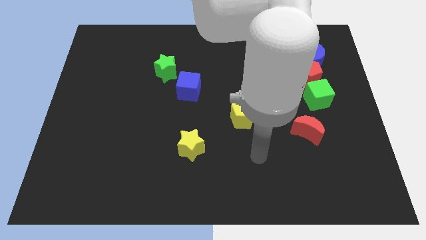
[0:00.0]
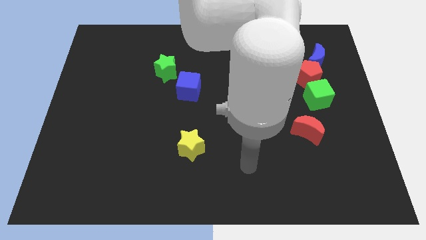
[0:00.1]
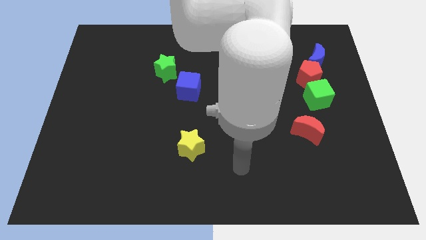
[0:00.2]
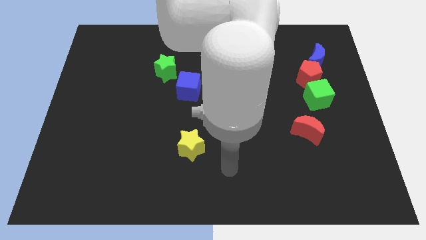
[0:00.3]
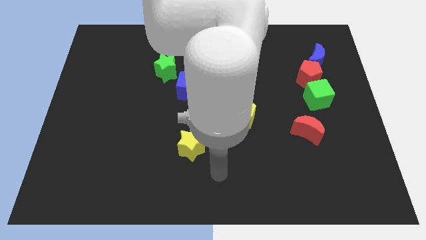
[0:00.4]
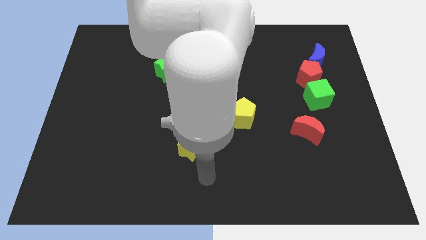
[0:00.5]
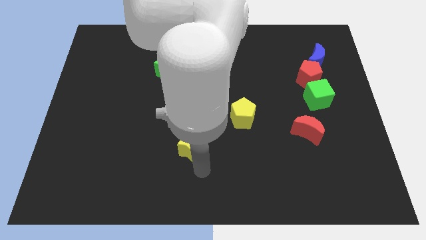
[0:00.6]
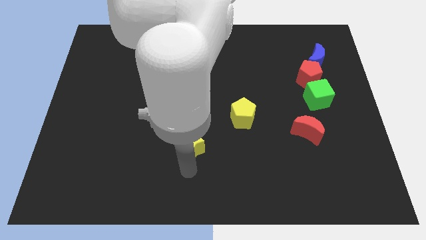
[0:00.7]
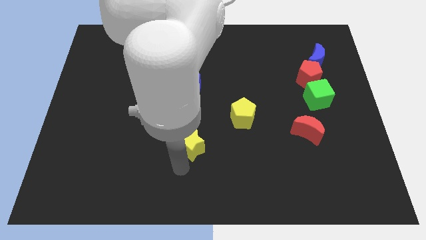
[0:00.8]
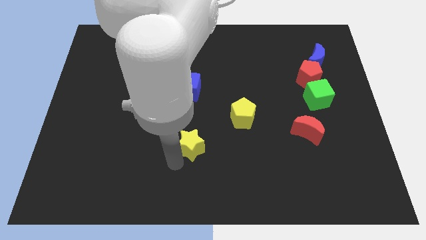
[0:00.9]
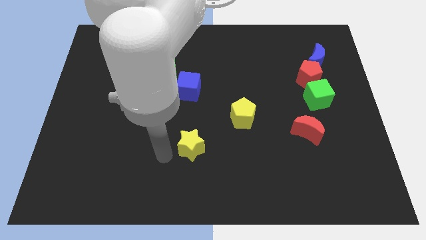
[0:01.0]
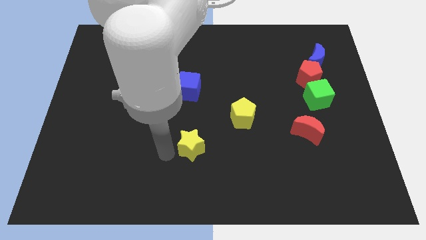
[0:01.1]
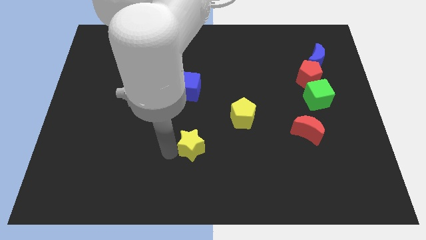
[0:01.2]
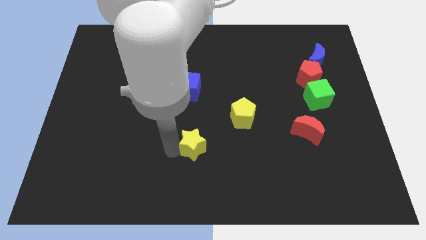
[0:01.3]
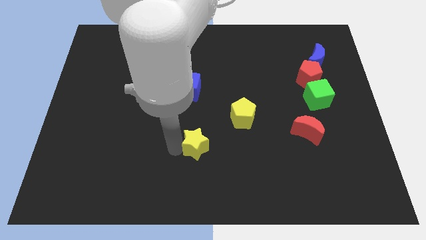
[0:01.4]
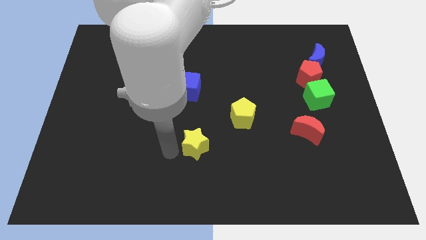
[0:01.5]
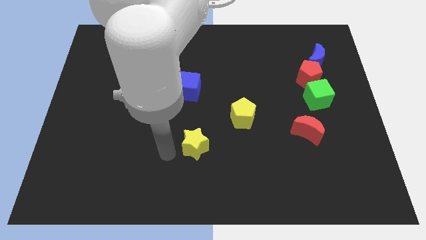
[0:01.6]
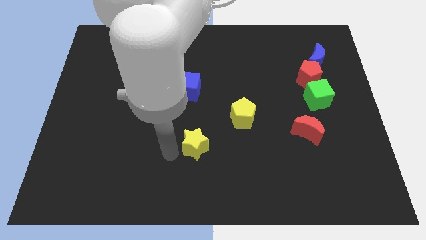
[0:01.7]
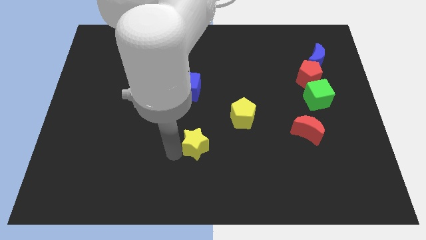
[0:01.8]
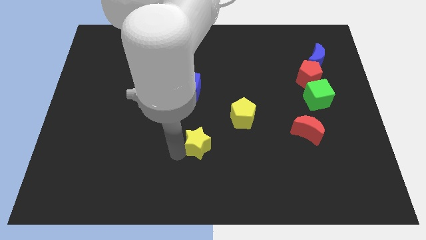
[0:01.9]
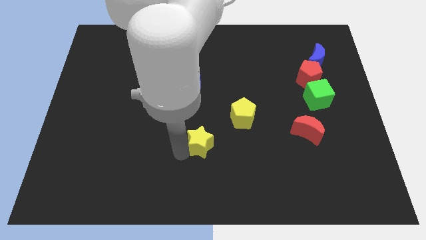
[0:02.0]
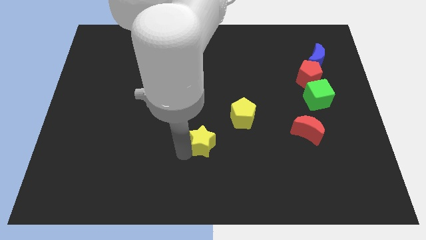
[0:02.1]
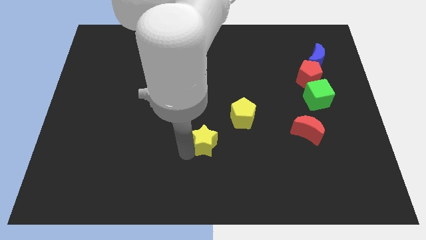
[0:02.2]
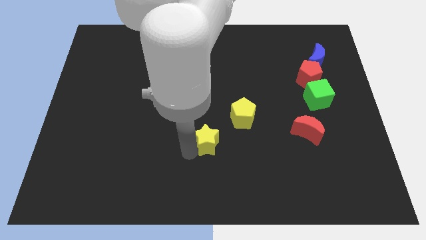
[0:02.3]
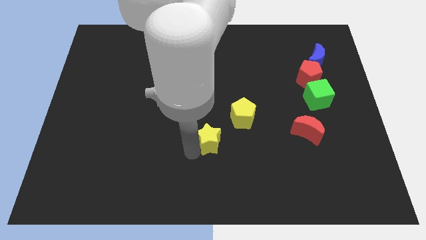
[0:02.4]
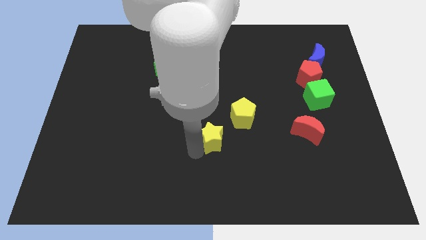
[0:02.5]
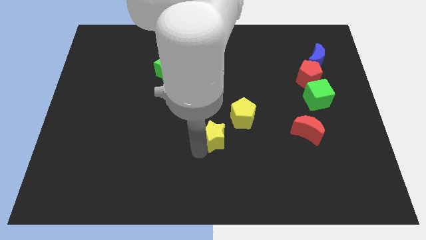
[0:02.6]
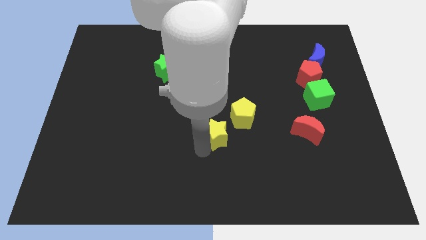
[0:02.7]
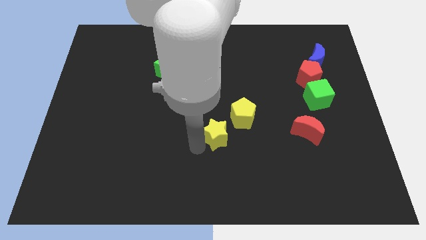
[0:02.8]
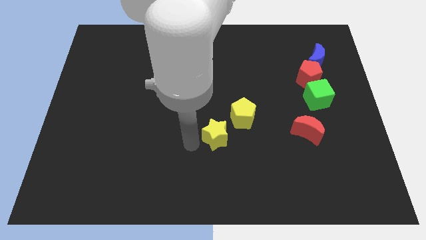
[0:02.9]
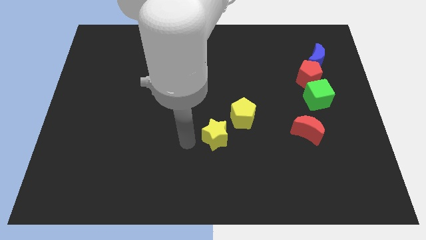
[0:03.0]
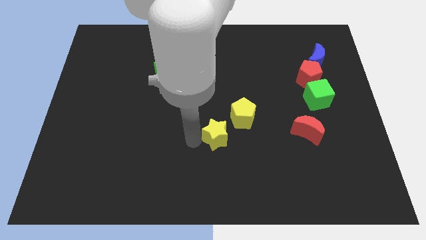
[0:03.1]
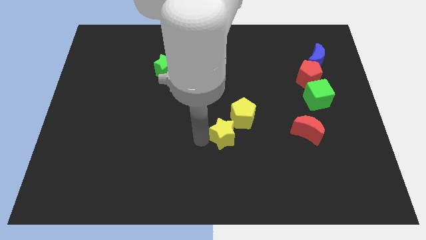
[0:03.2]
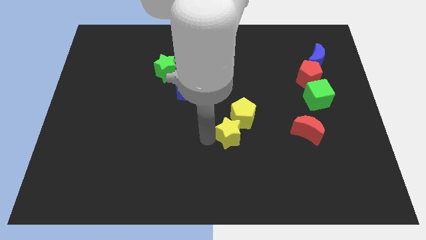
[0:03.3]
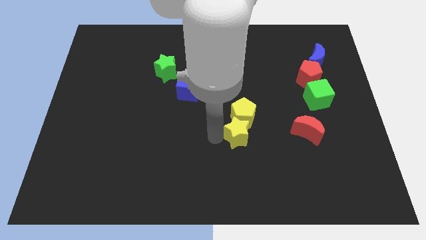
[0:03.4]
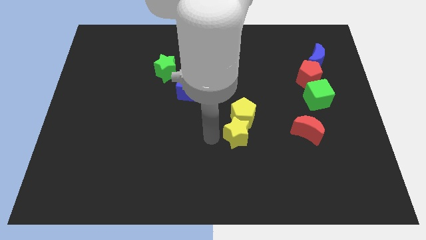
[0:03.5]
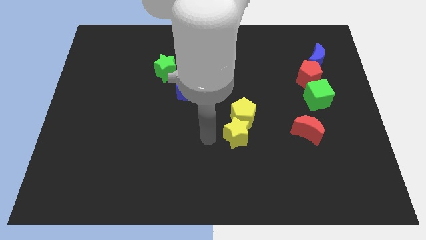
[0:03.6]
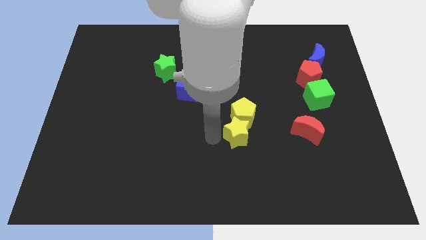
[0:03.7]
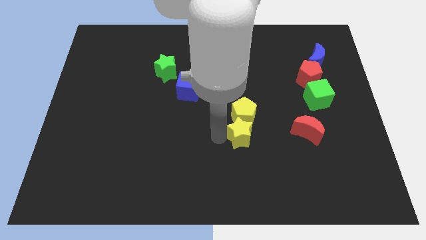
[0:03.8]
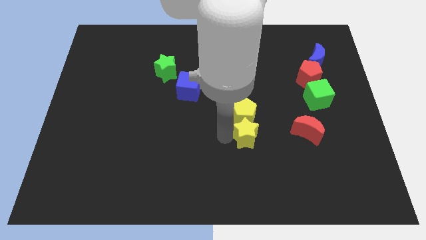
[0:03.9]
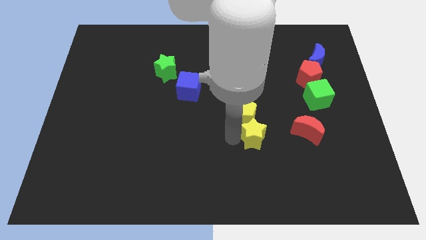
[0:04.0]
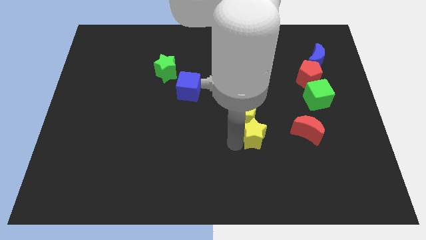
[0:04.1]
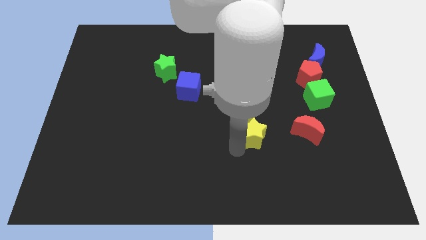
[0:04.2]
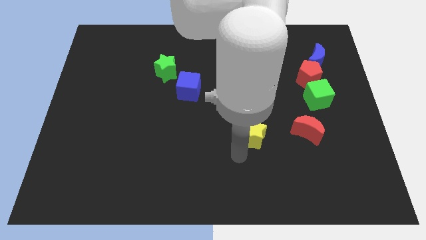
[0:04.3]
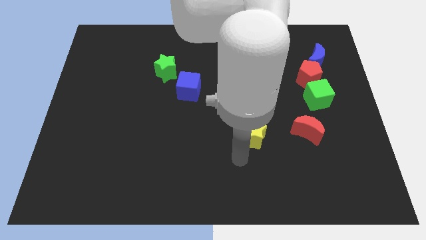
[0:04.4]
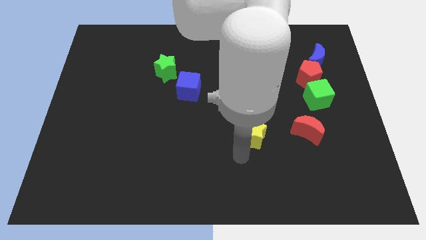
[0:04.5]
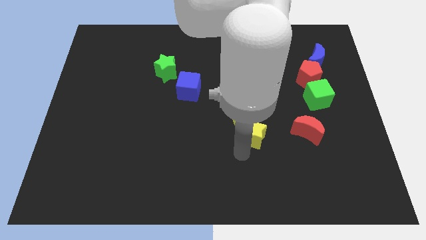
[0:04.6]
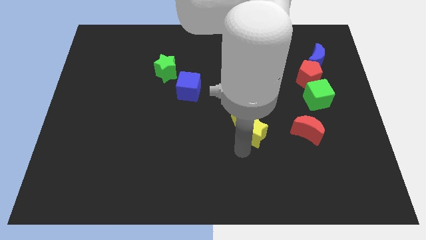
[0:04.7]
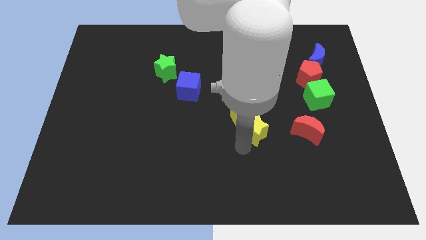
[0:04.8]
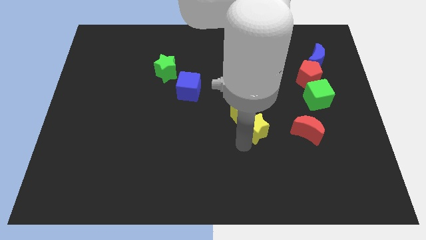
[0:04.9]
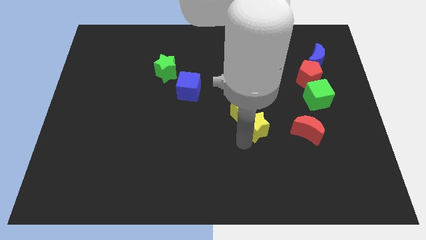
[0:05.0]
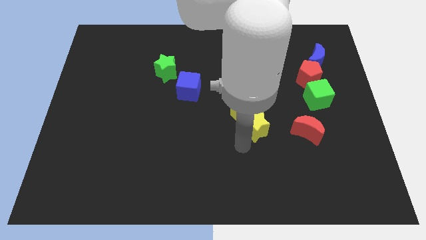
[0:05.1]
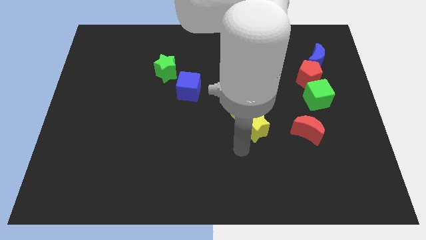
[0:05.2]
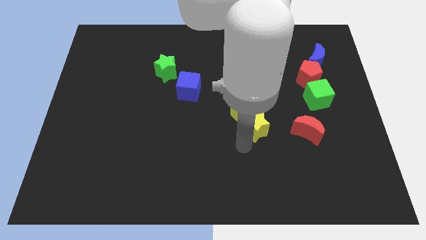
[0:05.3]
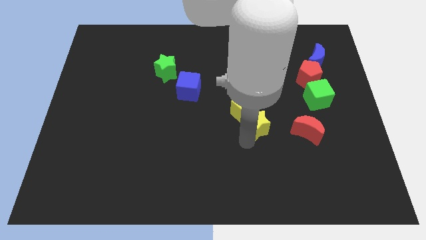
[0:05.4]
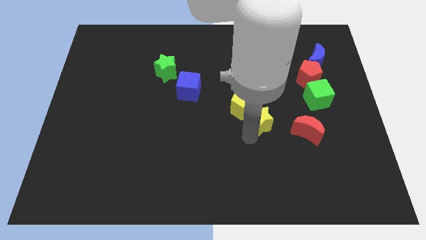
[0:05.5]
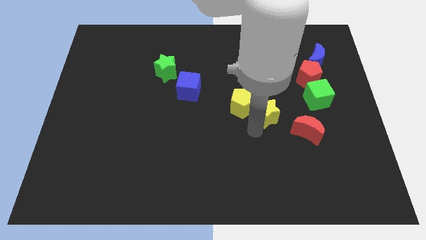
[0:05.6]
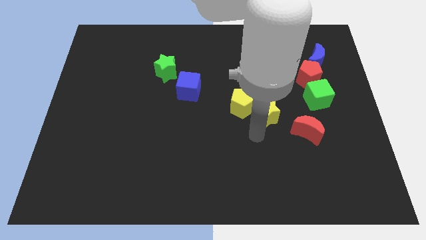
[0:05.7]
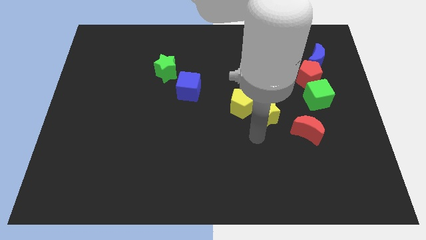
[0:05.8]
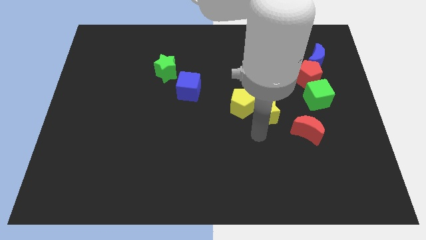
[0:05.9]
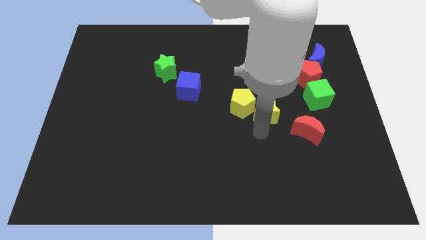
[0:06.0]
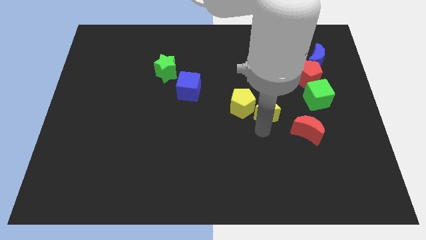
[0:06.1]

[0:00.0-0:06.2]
move the yellow star left of the green cube

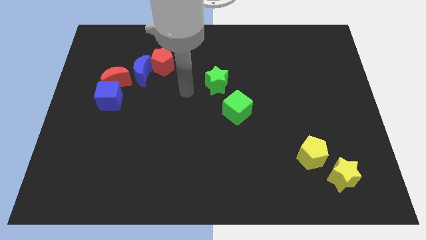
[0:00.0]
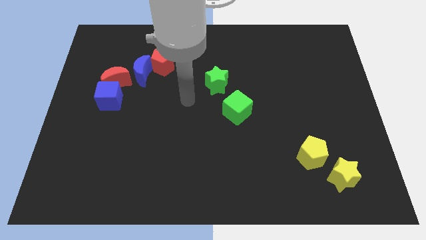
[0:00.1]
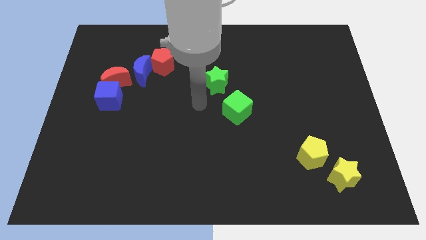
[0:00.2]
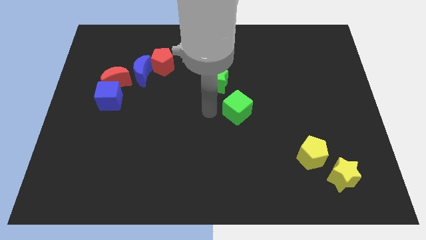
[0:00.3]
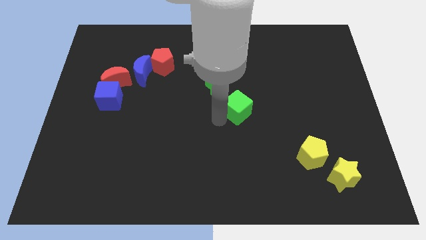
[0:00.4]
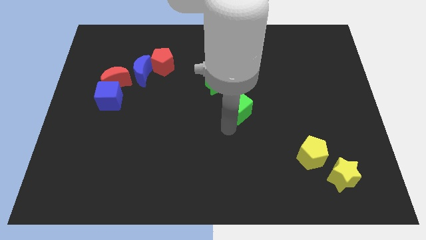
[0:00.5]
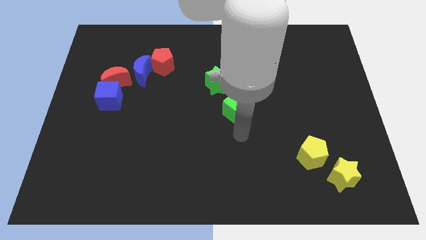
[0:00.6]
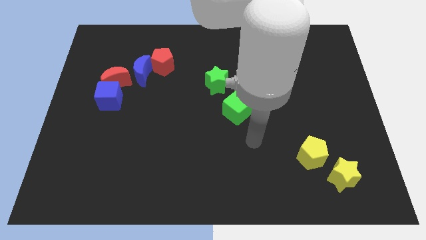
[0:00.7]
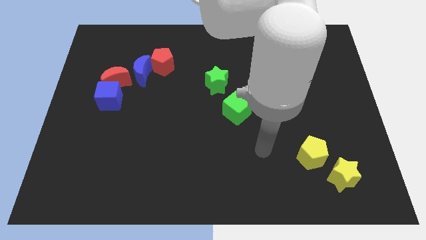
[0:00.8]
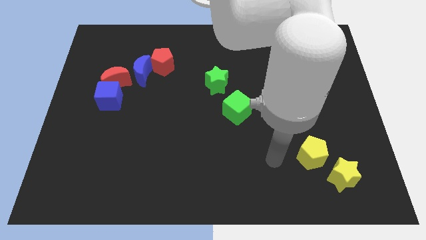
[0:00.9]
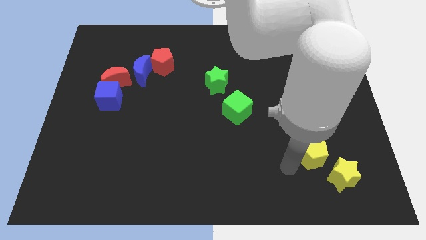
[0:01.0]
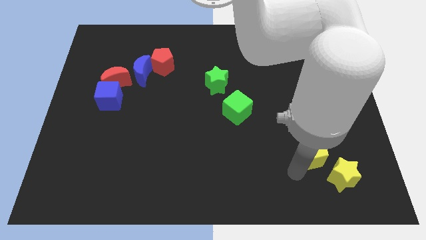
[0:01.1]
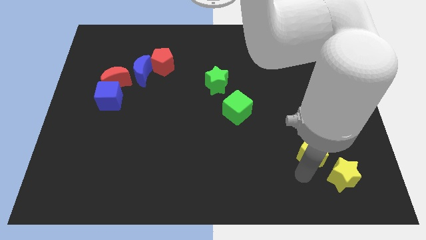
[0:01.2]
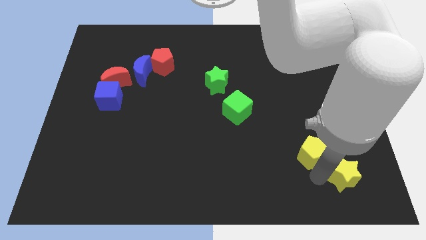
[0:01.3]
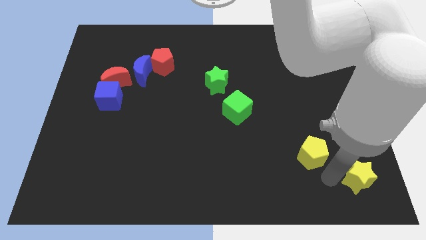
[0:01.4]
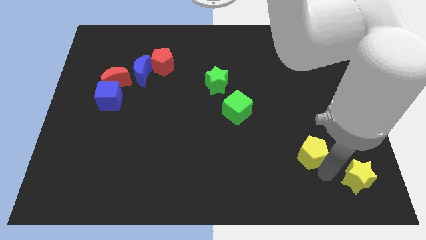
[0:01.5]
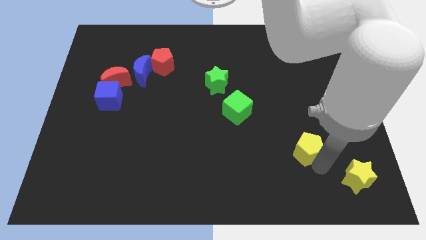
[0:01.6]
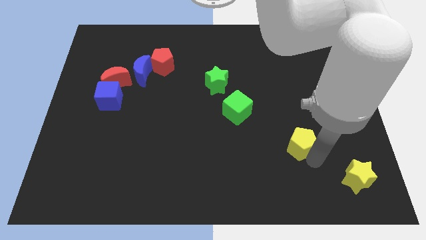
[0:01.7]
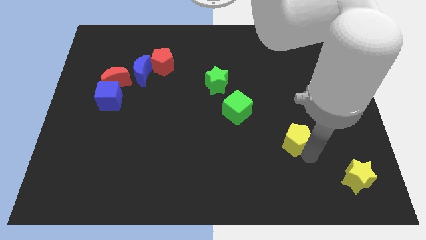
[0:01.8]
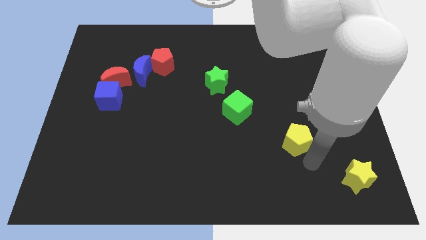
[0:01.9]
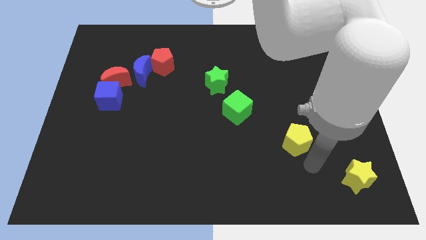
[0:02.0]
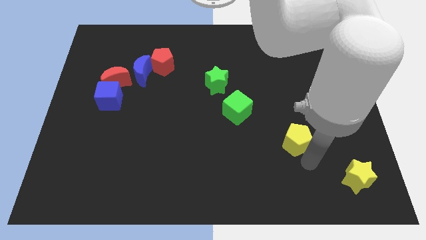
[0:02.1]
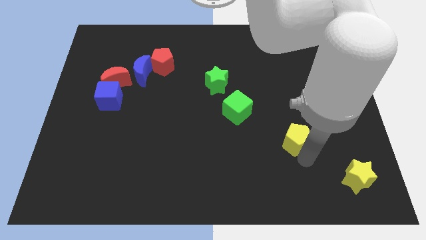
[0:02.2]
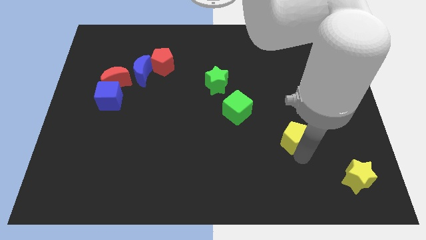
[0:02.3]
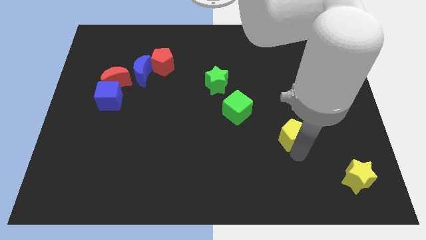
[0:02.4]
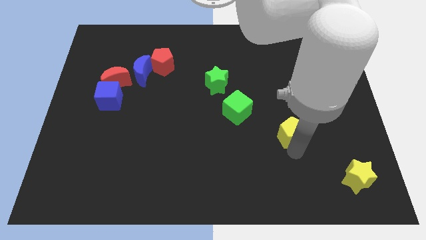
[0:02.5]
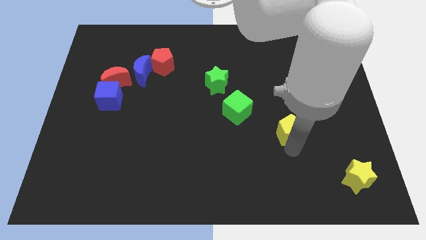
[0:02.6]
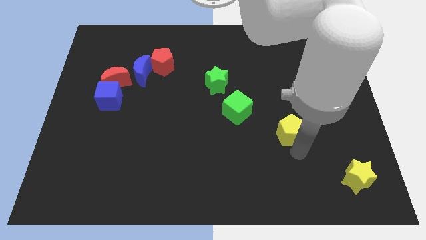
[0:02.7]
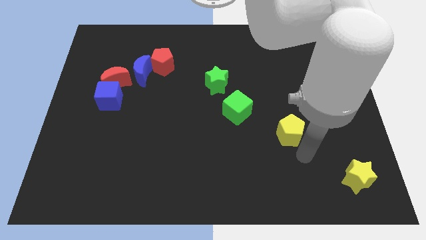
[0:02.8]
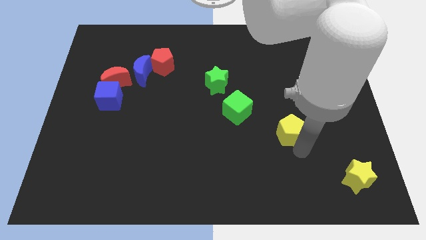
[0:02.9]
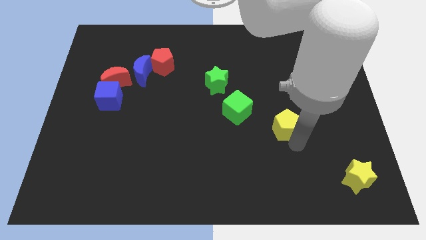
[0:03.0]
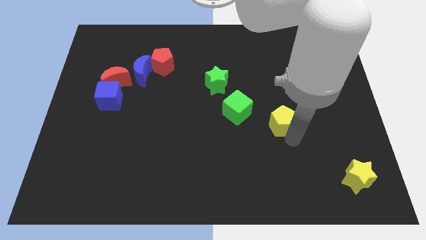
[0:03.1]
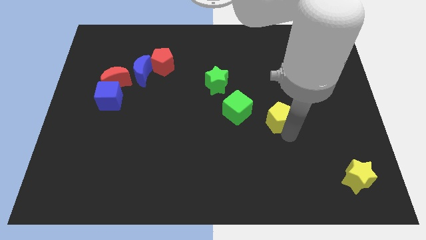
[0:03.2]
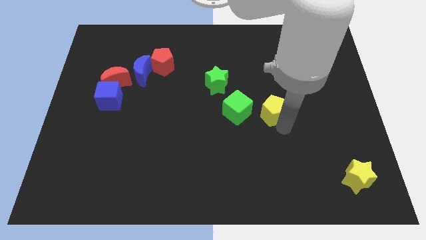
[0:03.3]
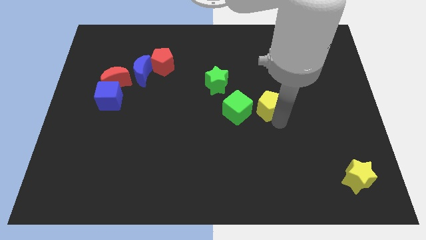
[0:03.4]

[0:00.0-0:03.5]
slide the yellow pentagon to the top right side of the green cube
